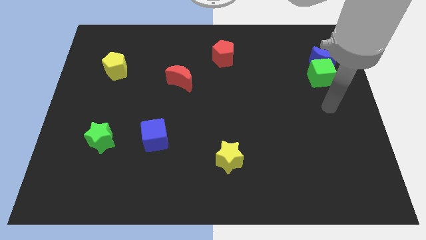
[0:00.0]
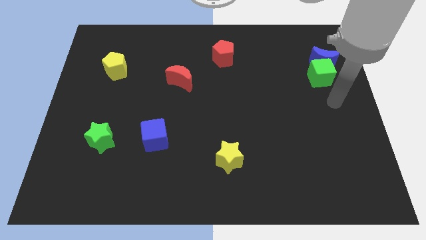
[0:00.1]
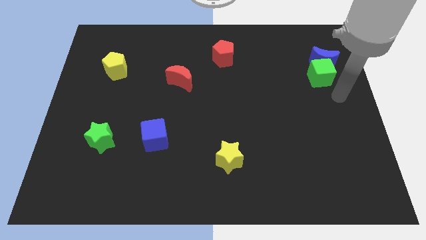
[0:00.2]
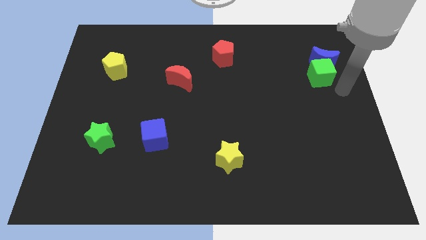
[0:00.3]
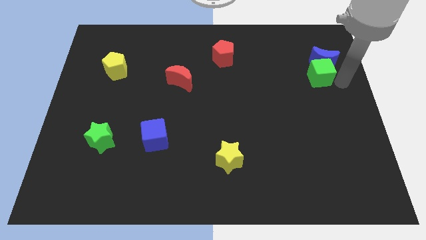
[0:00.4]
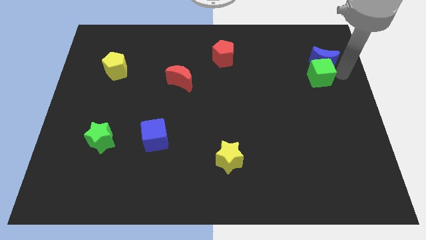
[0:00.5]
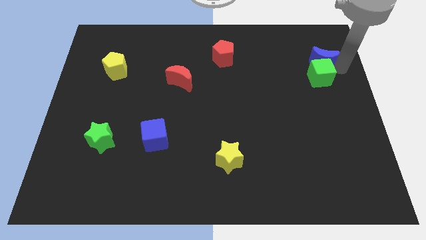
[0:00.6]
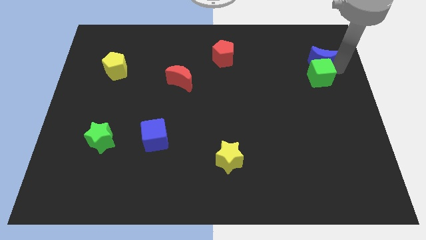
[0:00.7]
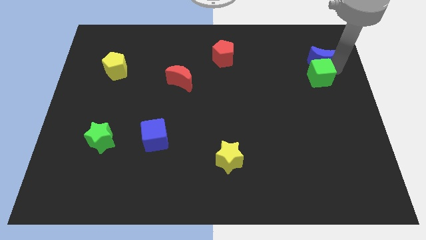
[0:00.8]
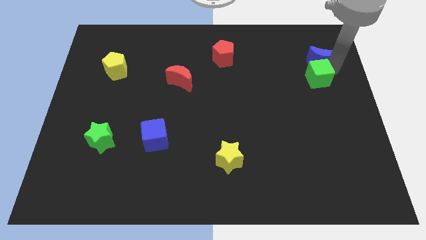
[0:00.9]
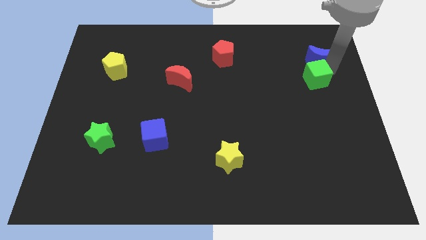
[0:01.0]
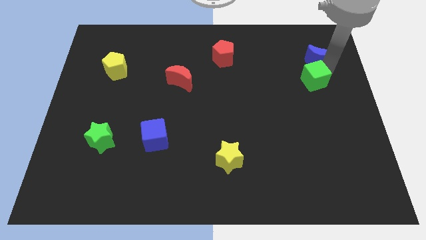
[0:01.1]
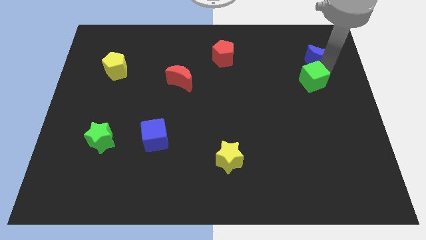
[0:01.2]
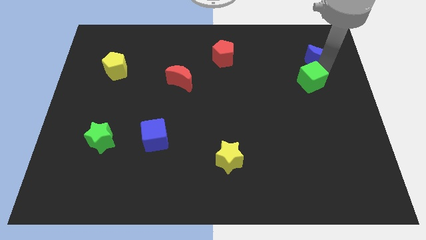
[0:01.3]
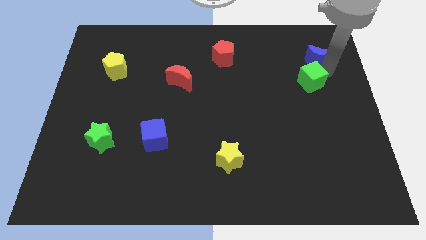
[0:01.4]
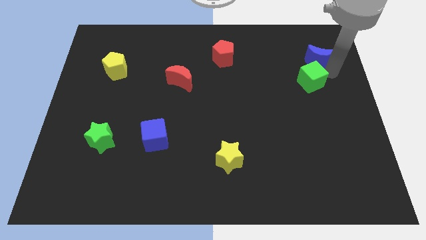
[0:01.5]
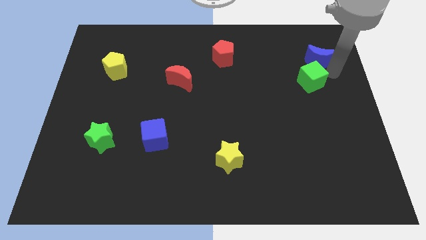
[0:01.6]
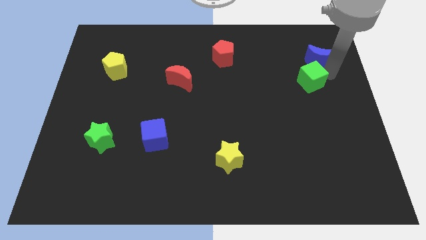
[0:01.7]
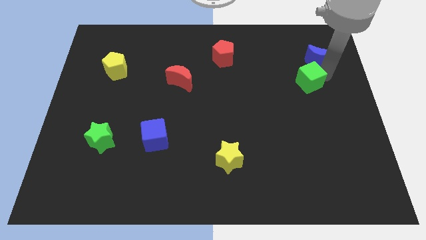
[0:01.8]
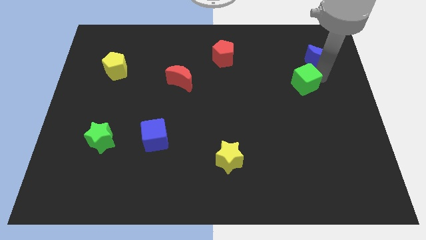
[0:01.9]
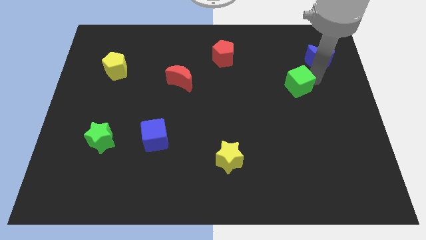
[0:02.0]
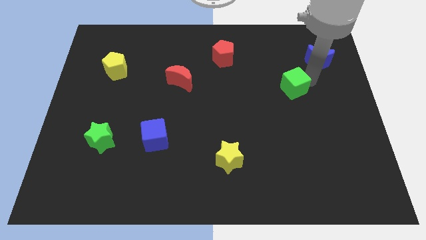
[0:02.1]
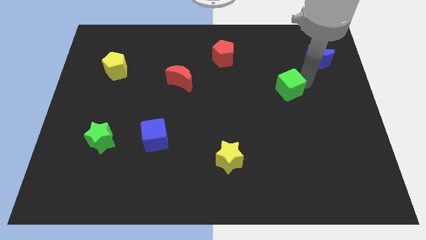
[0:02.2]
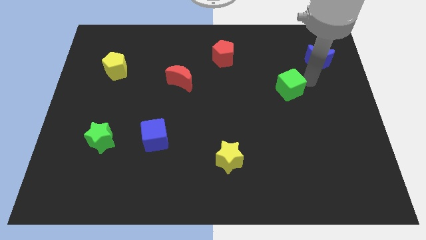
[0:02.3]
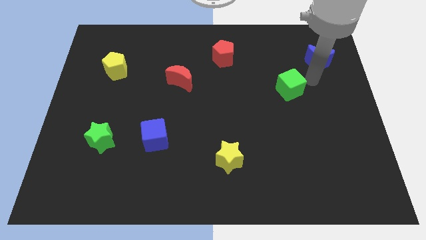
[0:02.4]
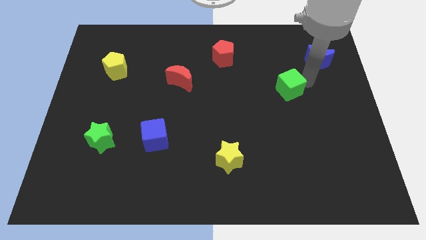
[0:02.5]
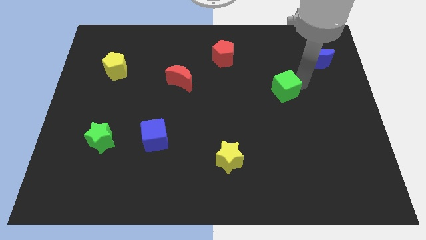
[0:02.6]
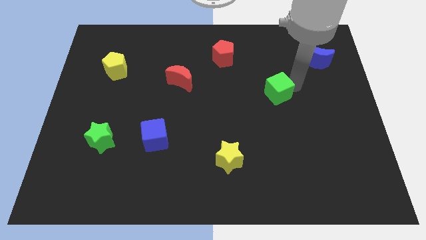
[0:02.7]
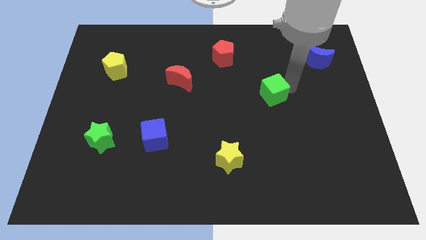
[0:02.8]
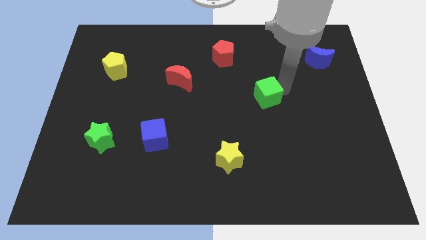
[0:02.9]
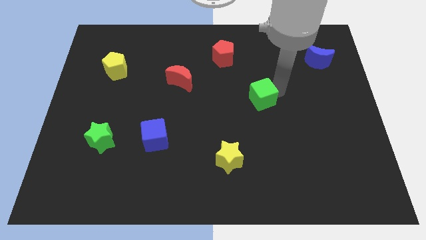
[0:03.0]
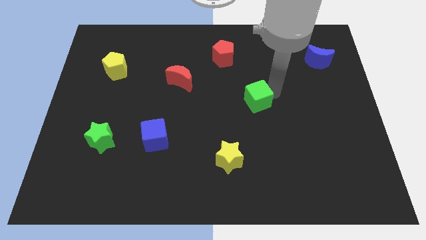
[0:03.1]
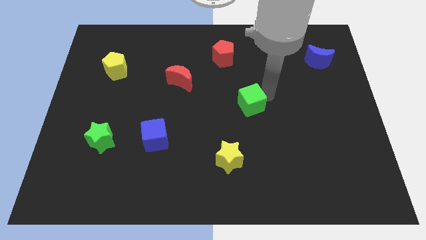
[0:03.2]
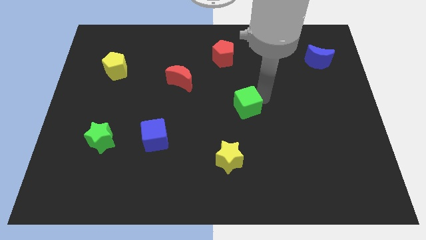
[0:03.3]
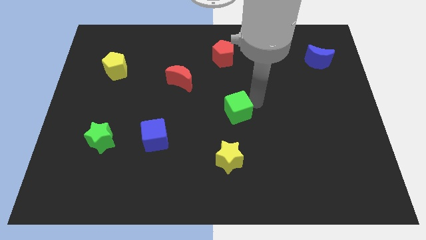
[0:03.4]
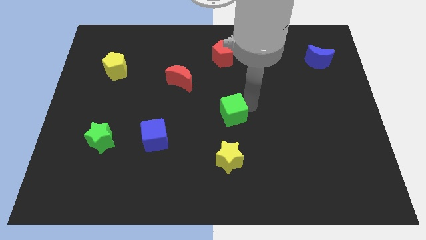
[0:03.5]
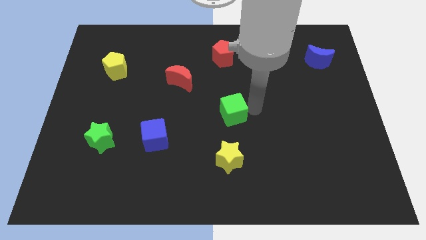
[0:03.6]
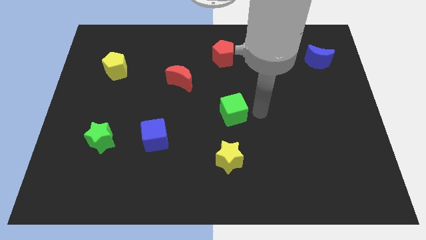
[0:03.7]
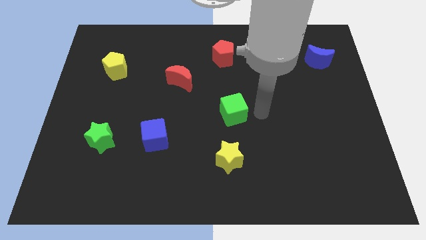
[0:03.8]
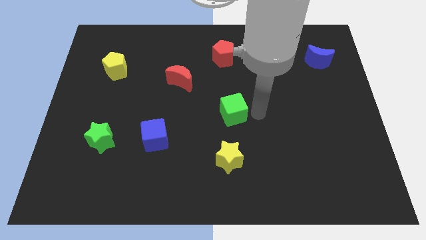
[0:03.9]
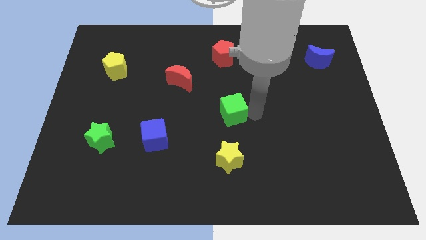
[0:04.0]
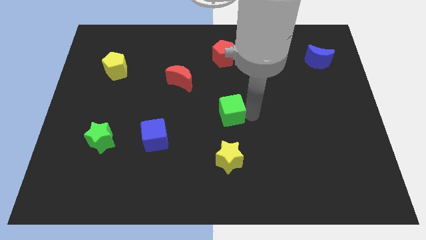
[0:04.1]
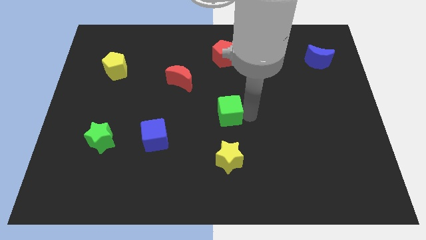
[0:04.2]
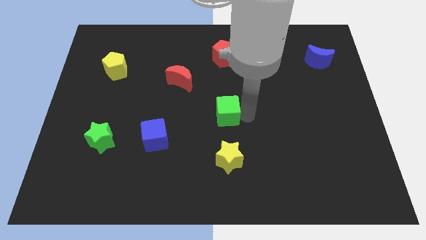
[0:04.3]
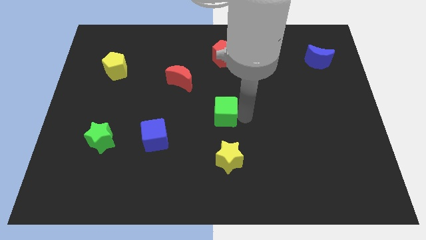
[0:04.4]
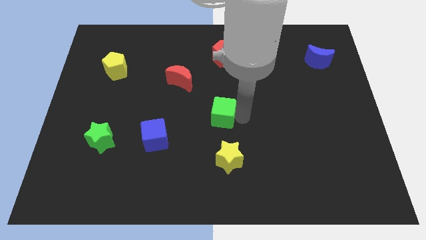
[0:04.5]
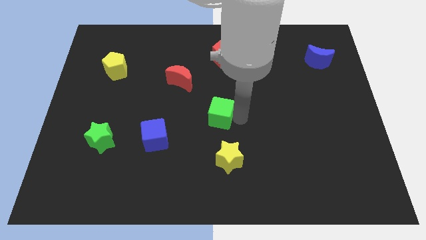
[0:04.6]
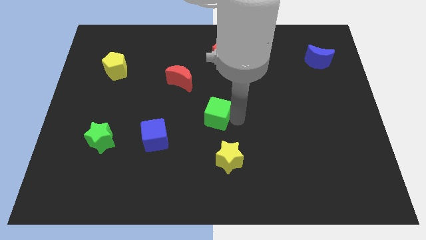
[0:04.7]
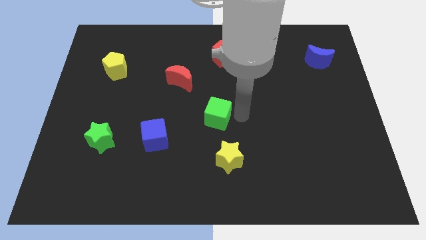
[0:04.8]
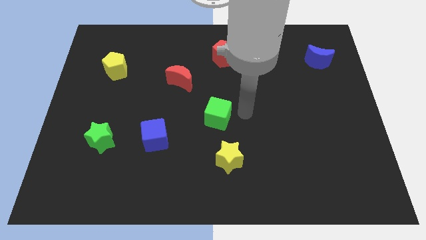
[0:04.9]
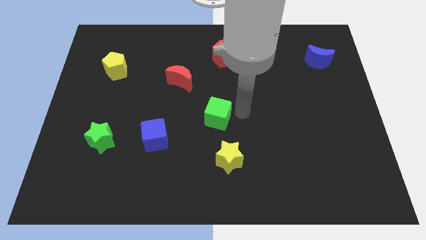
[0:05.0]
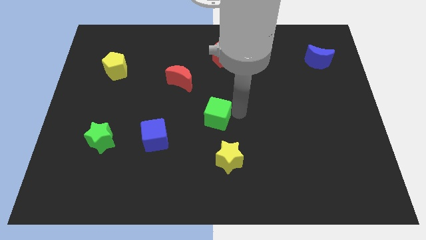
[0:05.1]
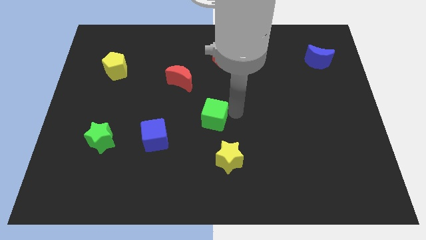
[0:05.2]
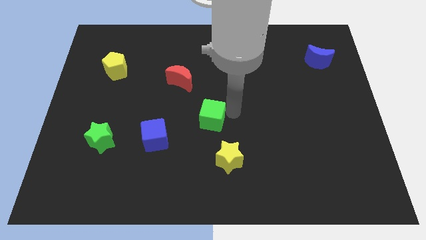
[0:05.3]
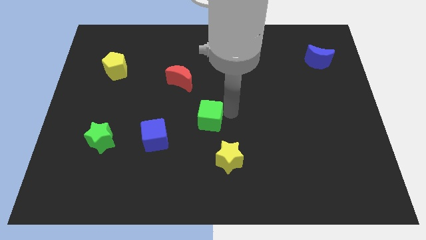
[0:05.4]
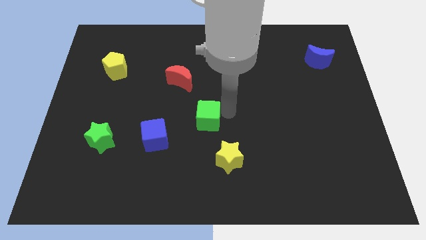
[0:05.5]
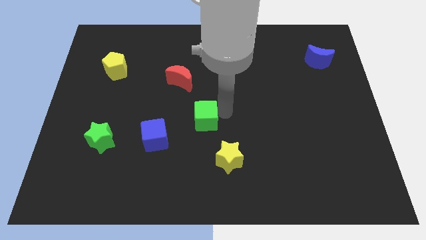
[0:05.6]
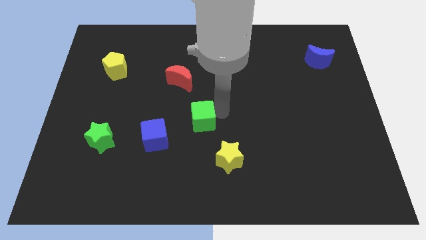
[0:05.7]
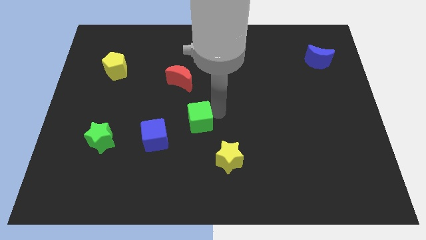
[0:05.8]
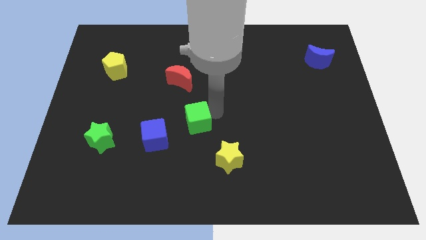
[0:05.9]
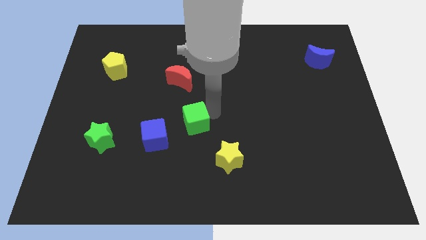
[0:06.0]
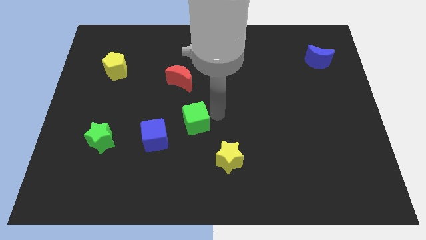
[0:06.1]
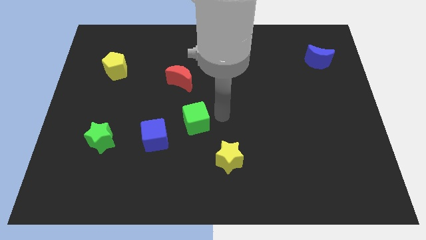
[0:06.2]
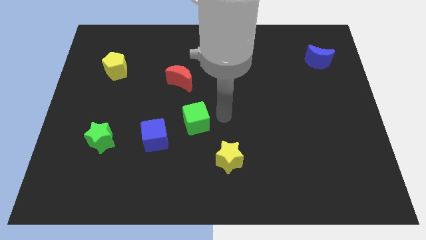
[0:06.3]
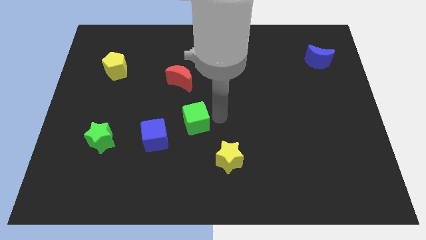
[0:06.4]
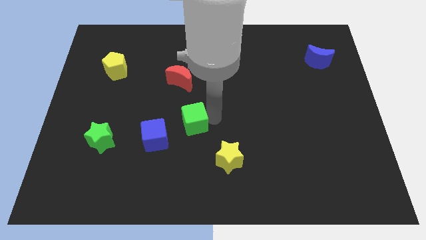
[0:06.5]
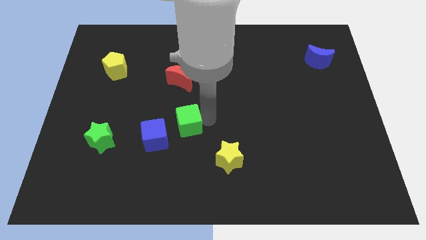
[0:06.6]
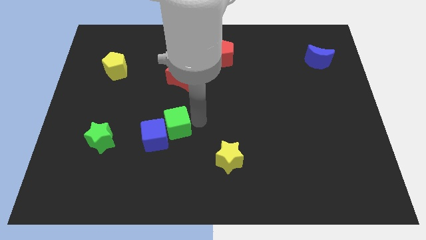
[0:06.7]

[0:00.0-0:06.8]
push the green cube next to the blue cube
